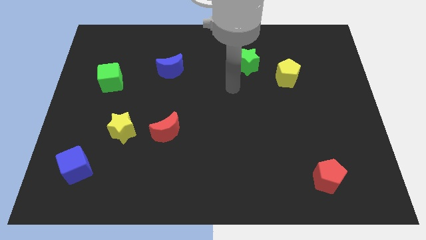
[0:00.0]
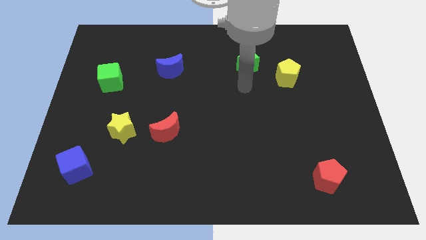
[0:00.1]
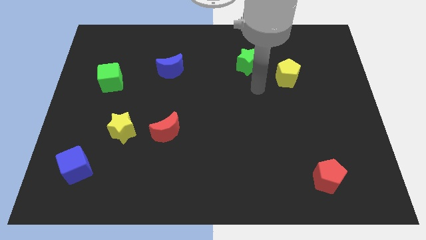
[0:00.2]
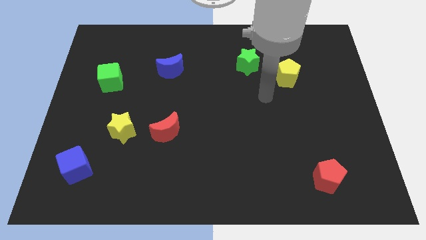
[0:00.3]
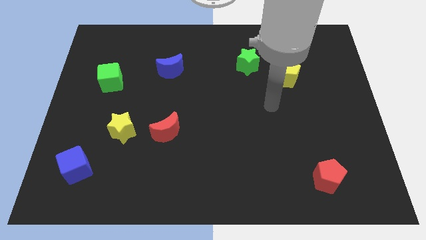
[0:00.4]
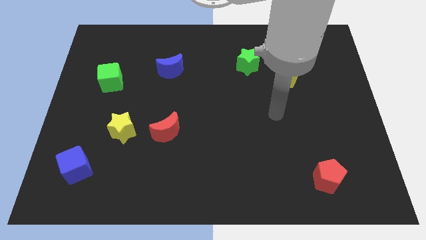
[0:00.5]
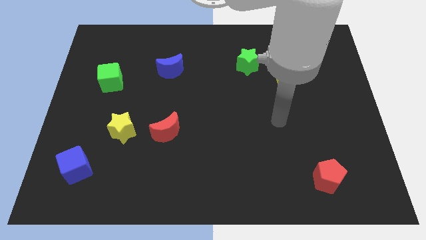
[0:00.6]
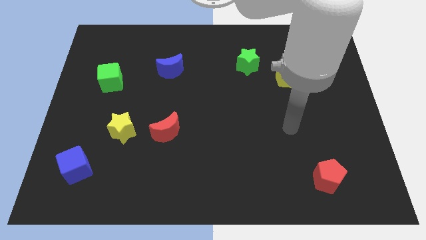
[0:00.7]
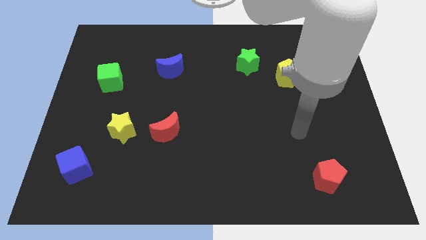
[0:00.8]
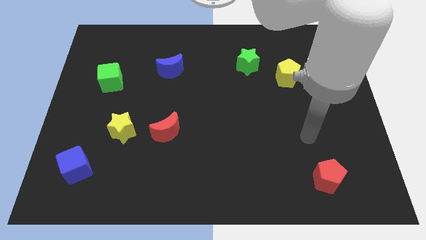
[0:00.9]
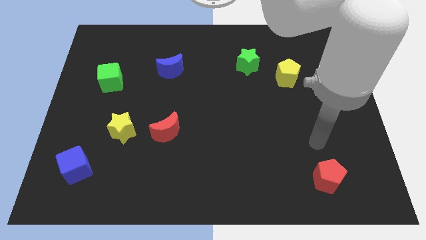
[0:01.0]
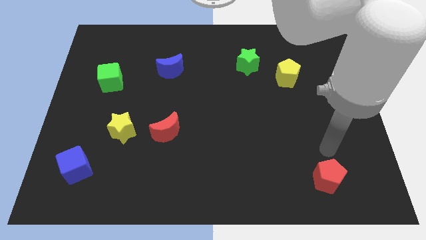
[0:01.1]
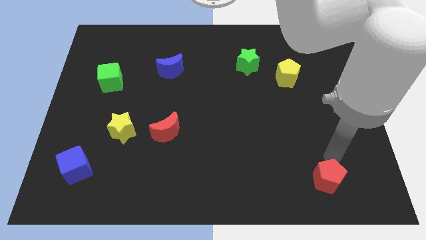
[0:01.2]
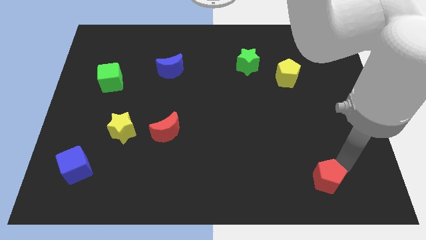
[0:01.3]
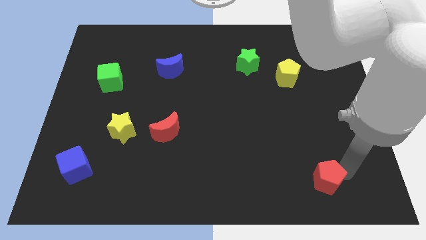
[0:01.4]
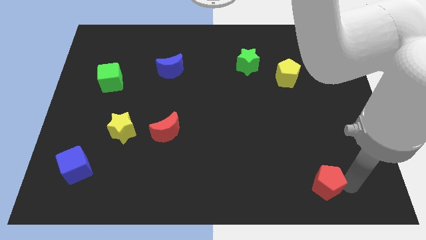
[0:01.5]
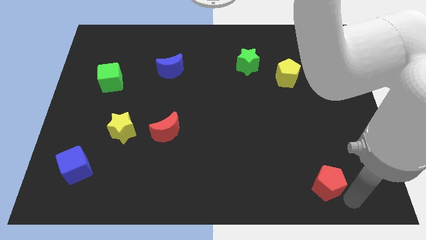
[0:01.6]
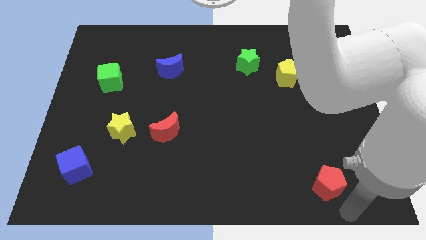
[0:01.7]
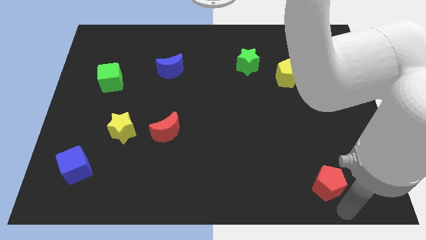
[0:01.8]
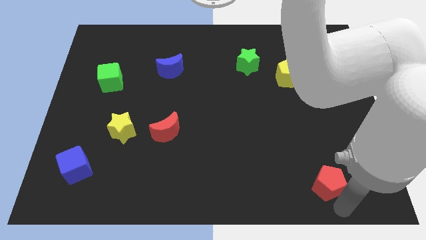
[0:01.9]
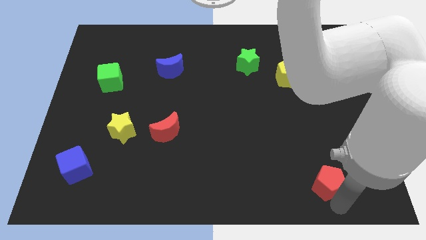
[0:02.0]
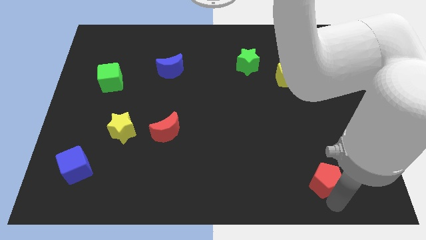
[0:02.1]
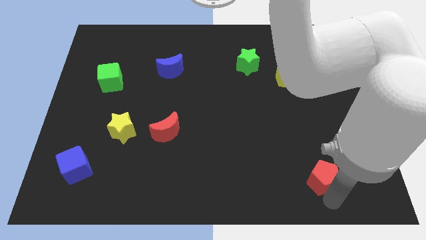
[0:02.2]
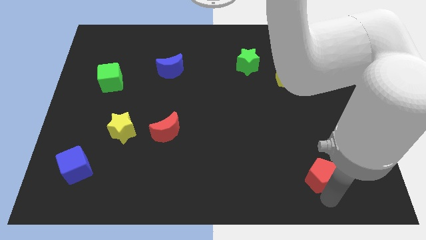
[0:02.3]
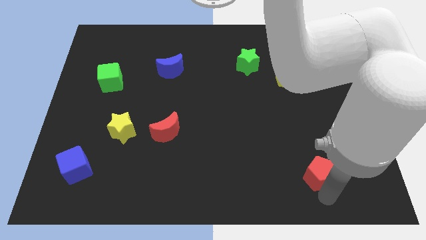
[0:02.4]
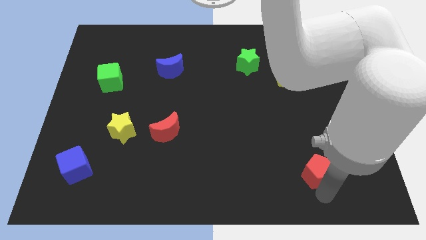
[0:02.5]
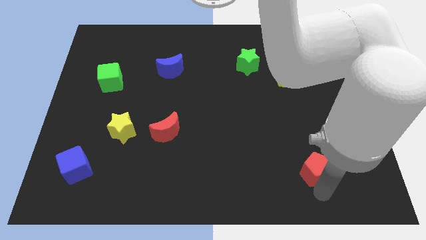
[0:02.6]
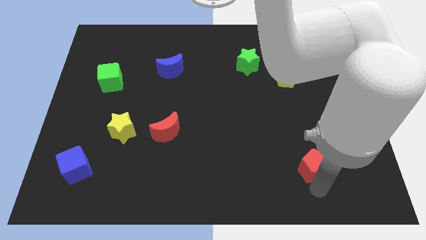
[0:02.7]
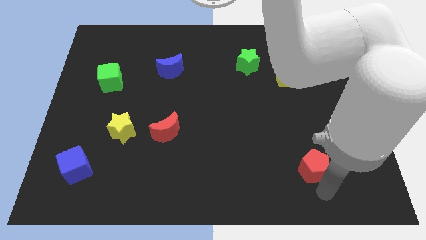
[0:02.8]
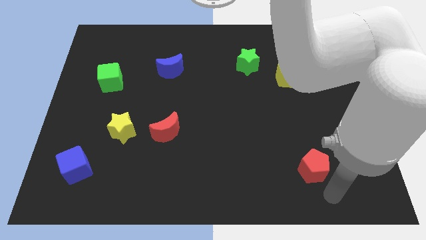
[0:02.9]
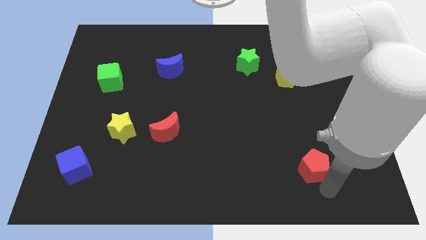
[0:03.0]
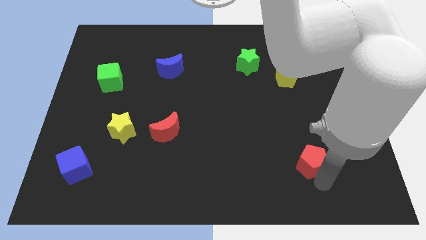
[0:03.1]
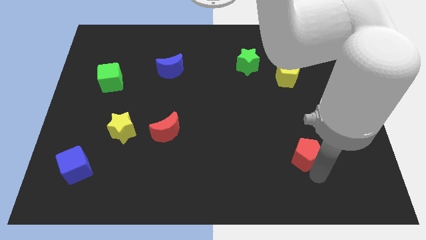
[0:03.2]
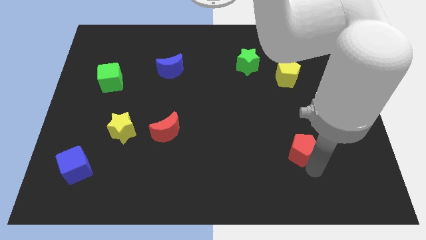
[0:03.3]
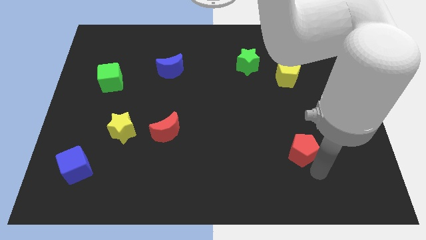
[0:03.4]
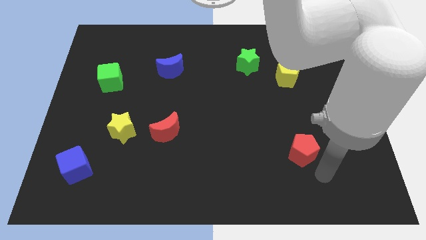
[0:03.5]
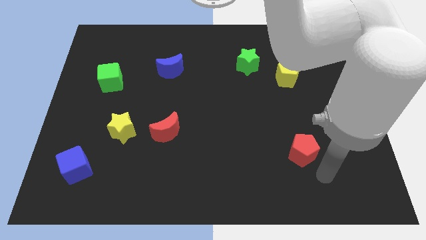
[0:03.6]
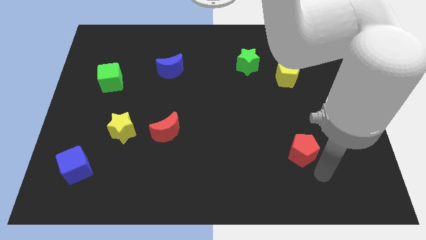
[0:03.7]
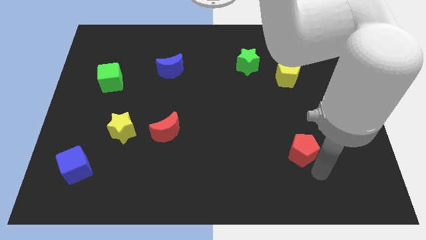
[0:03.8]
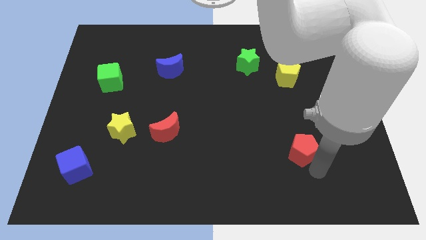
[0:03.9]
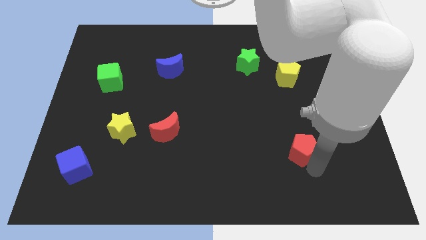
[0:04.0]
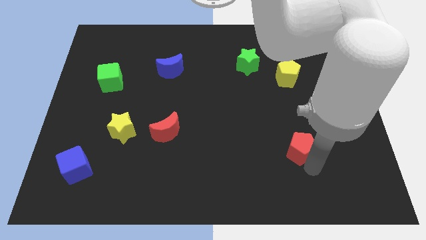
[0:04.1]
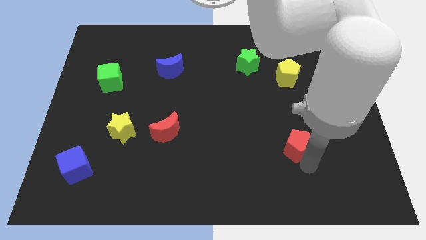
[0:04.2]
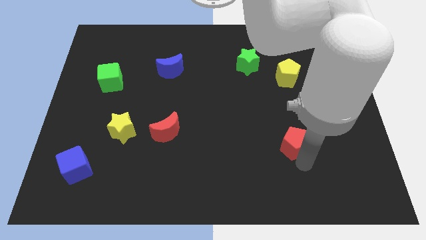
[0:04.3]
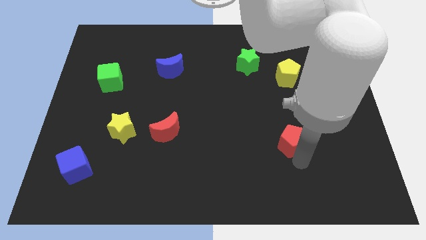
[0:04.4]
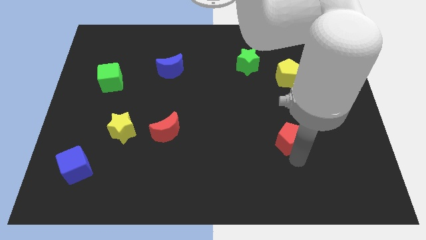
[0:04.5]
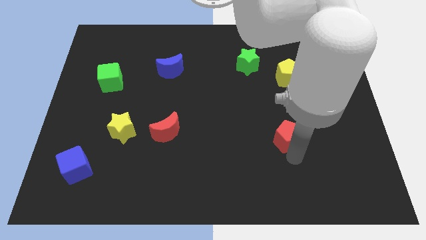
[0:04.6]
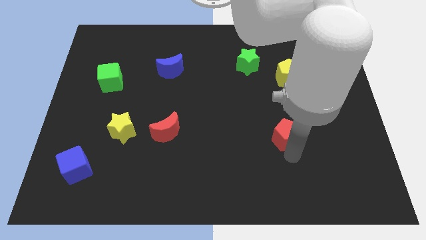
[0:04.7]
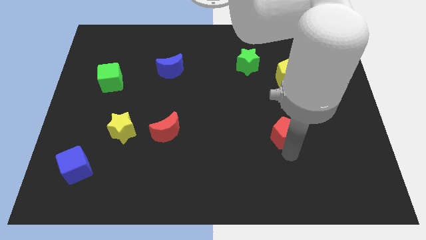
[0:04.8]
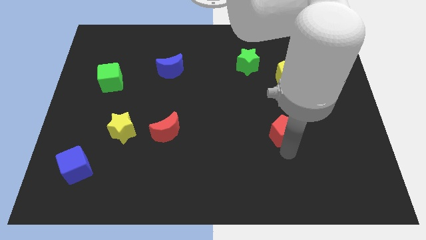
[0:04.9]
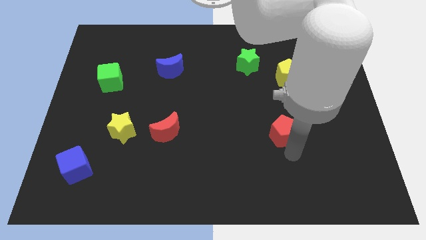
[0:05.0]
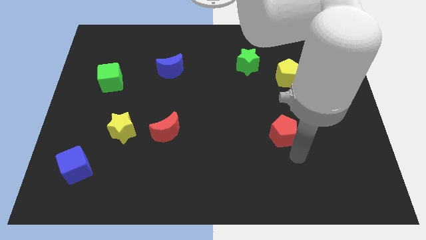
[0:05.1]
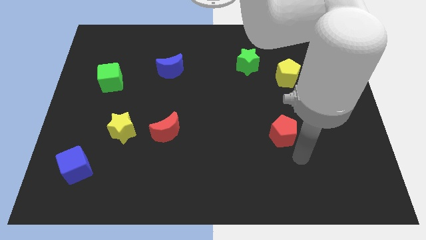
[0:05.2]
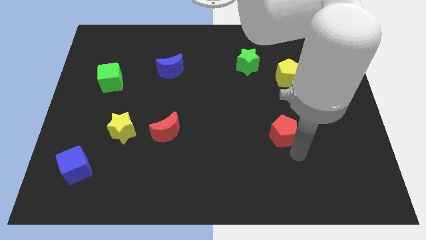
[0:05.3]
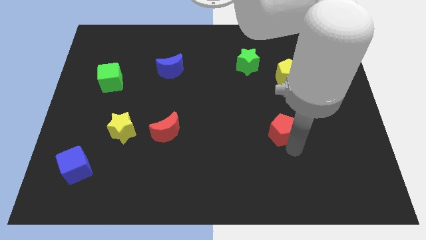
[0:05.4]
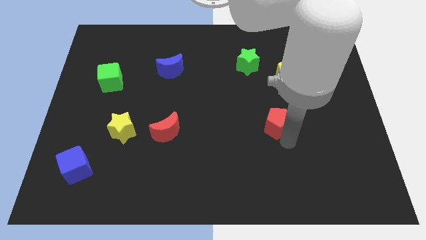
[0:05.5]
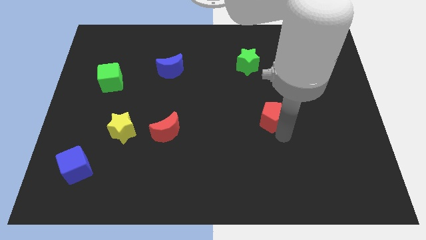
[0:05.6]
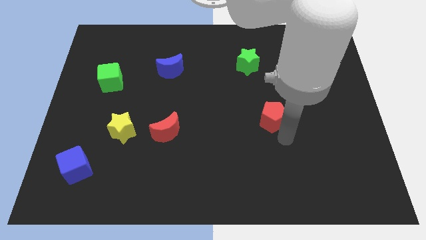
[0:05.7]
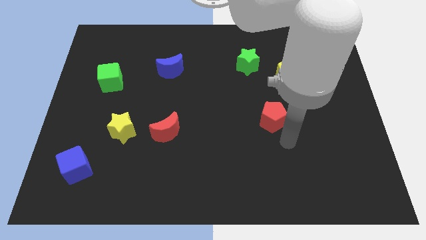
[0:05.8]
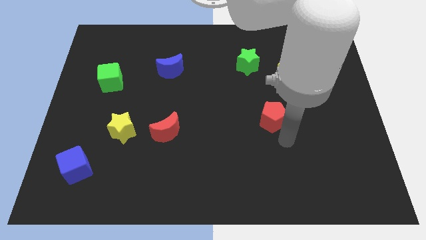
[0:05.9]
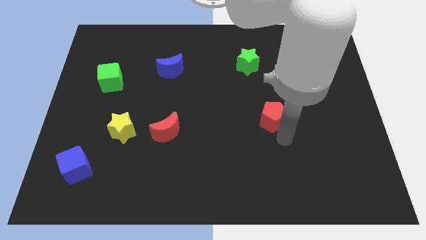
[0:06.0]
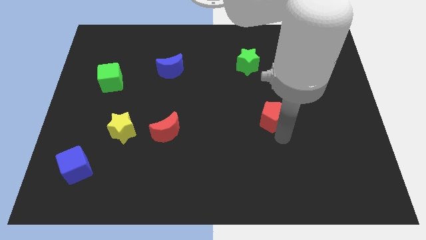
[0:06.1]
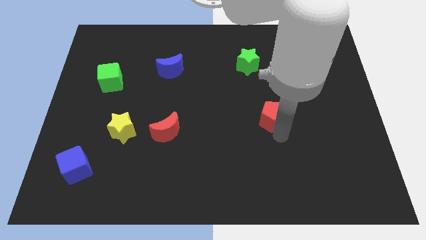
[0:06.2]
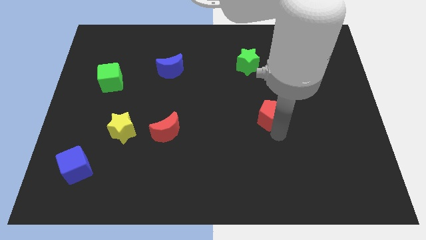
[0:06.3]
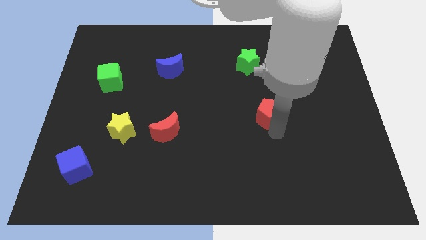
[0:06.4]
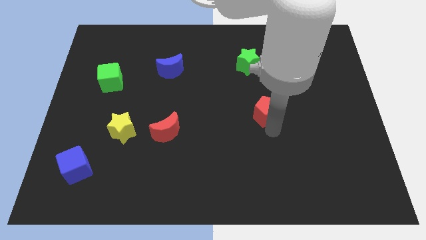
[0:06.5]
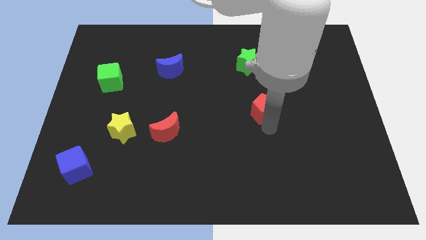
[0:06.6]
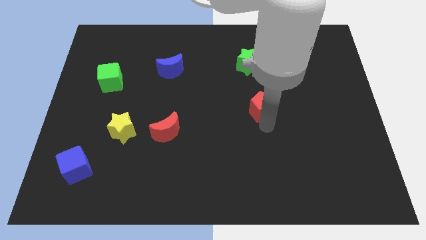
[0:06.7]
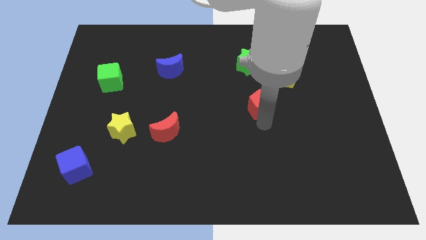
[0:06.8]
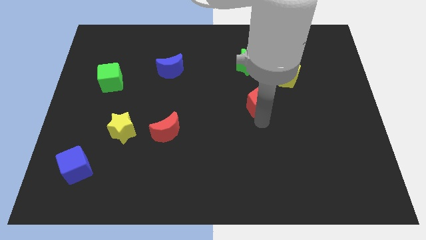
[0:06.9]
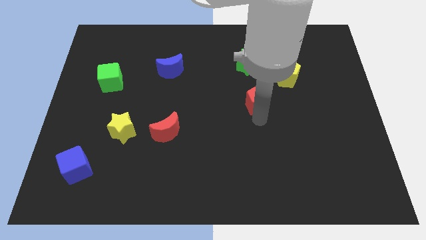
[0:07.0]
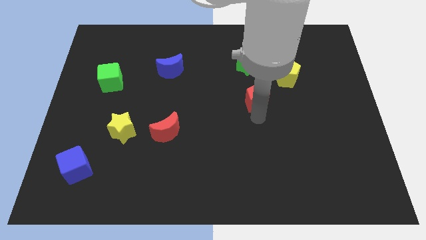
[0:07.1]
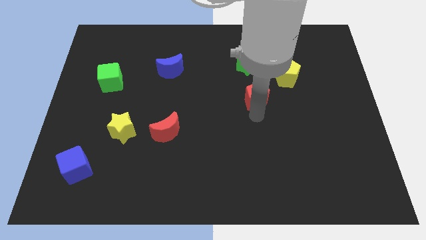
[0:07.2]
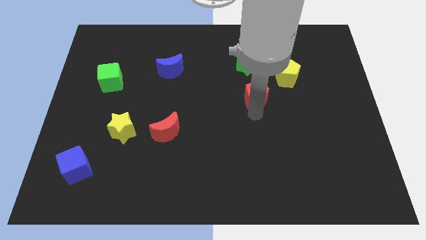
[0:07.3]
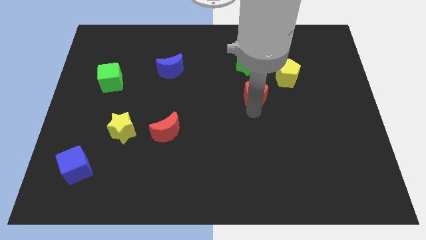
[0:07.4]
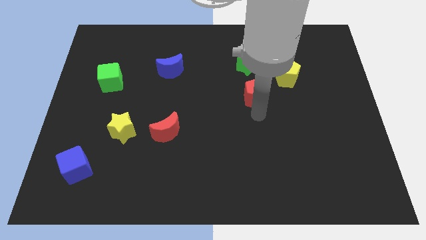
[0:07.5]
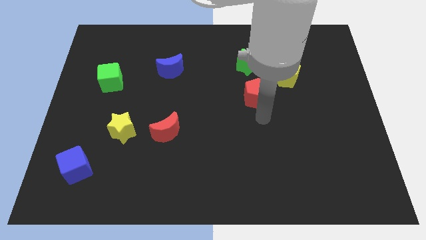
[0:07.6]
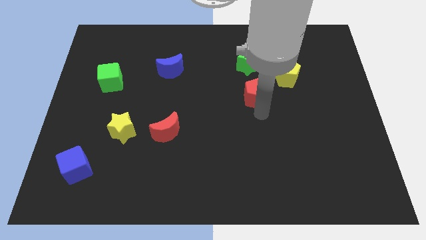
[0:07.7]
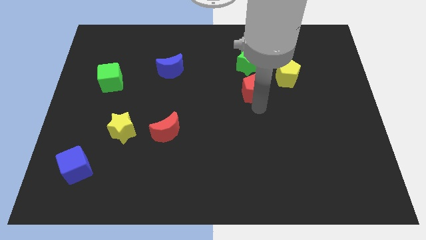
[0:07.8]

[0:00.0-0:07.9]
move the red pentagon left of the yellow pentagon
